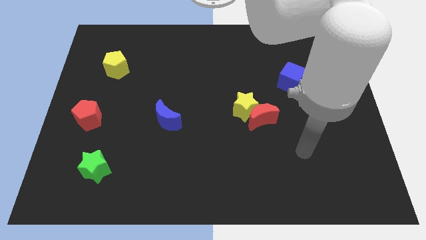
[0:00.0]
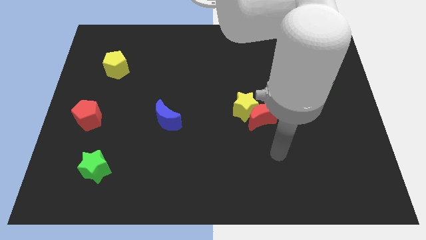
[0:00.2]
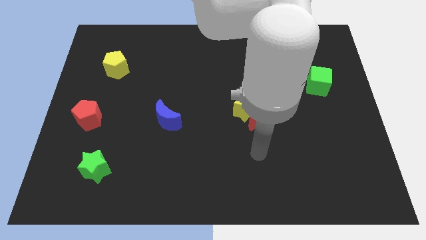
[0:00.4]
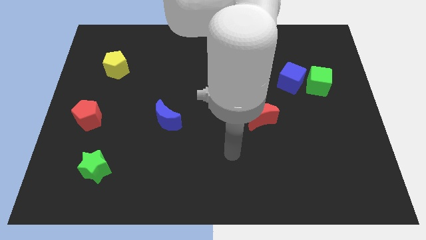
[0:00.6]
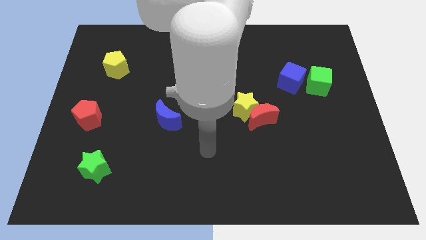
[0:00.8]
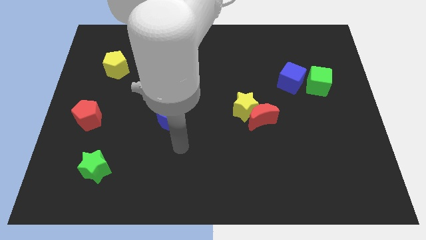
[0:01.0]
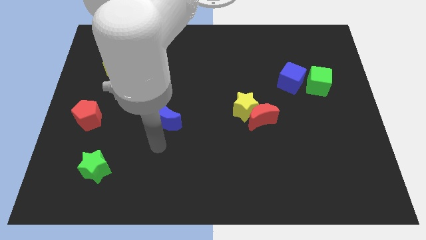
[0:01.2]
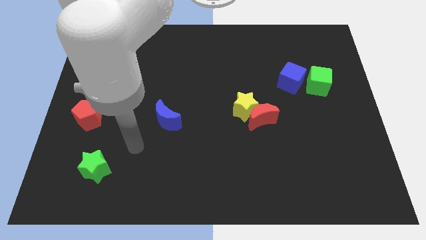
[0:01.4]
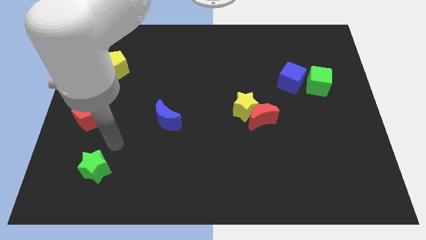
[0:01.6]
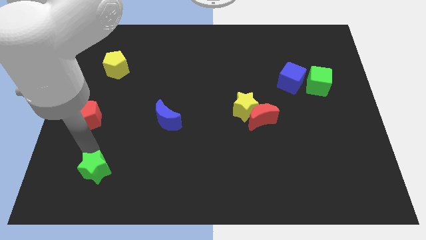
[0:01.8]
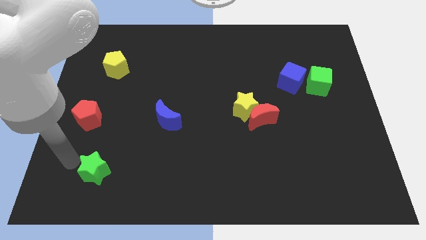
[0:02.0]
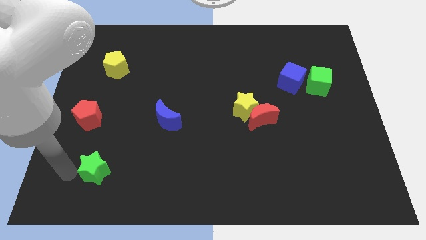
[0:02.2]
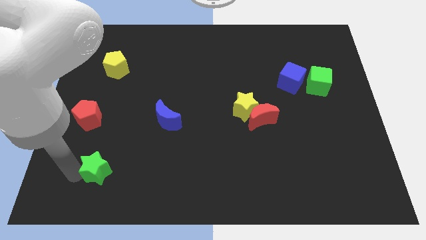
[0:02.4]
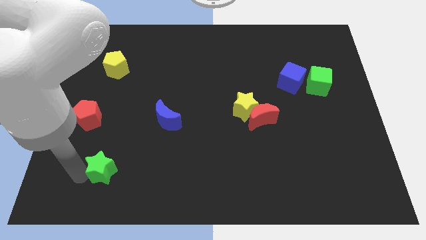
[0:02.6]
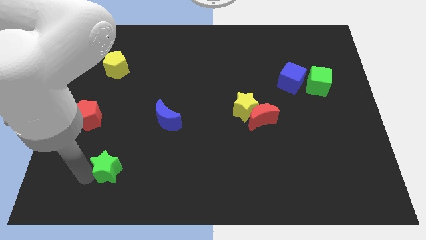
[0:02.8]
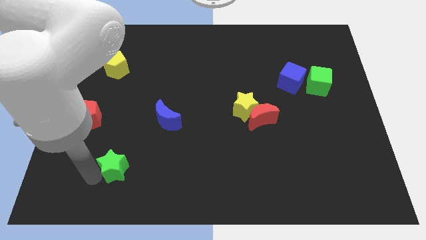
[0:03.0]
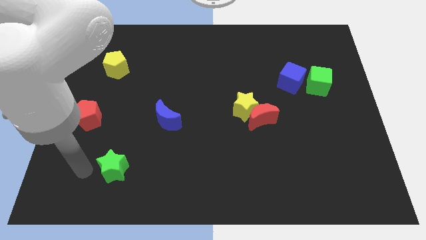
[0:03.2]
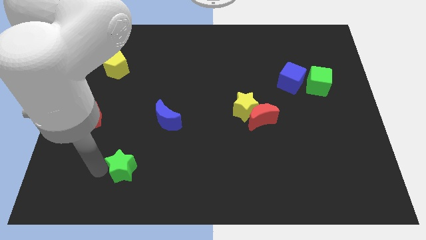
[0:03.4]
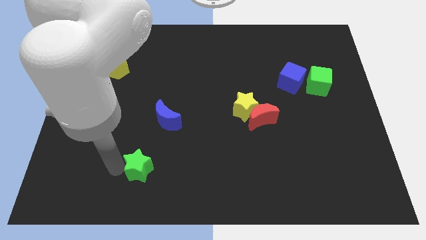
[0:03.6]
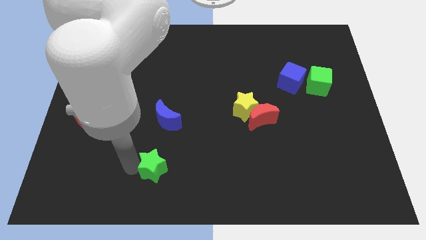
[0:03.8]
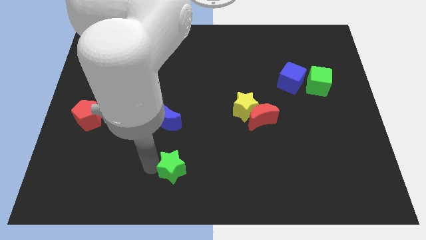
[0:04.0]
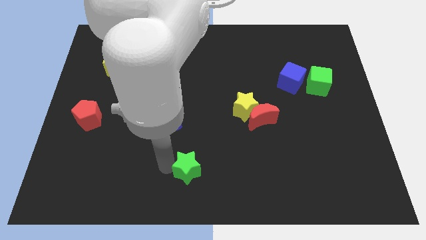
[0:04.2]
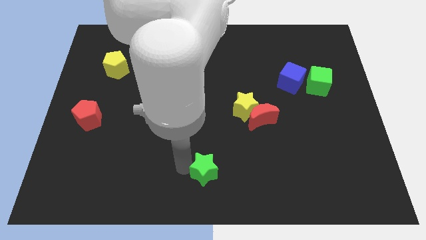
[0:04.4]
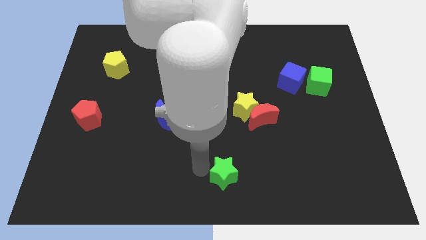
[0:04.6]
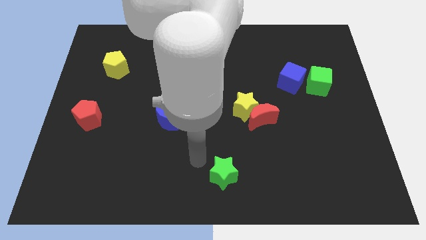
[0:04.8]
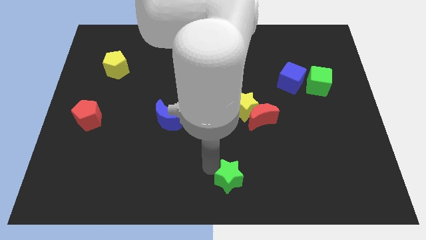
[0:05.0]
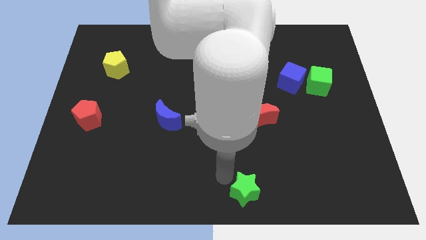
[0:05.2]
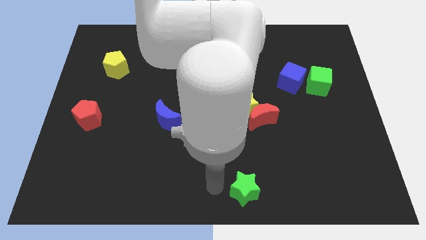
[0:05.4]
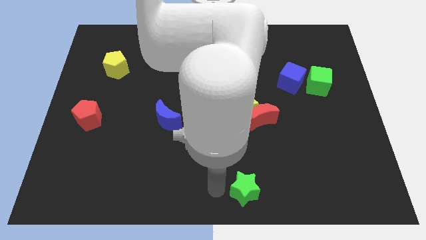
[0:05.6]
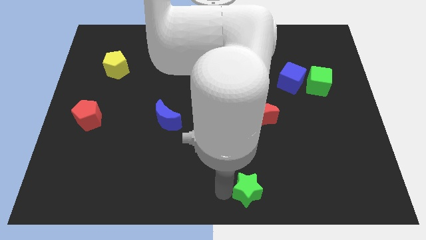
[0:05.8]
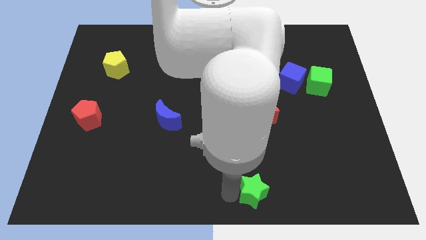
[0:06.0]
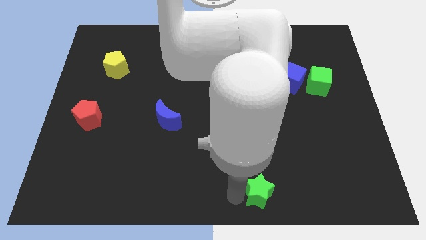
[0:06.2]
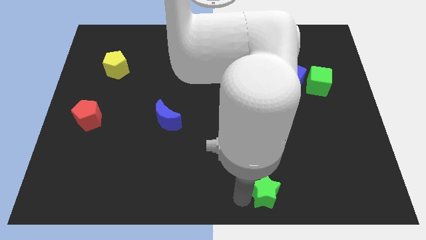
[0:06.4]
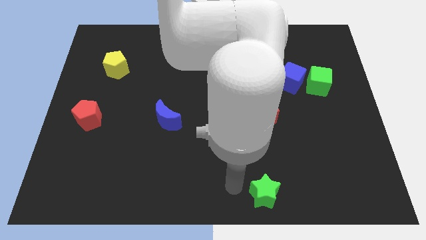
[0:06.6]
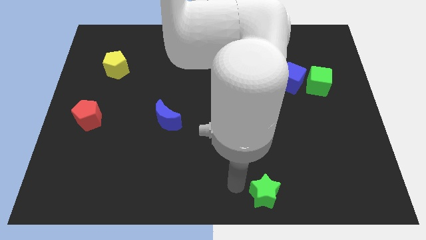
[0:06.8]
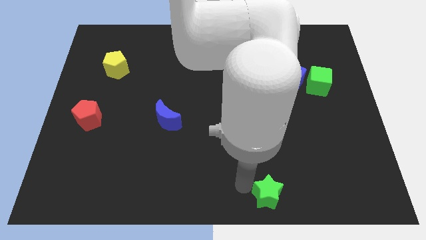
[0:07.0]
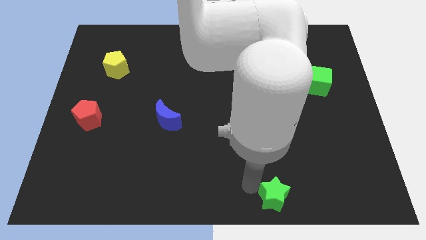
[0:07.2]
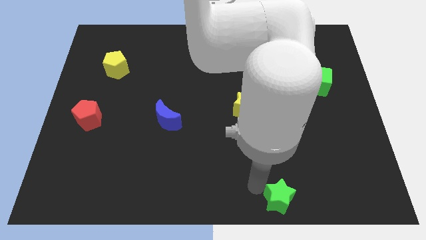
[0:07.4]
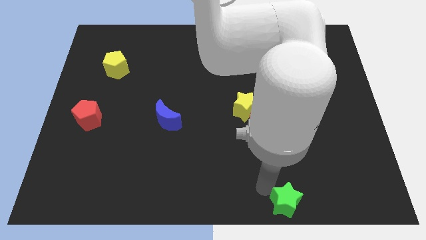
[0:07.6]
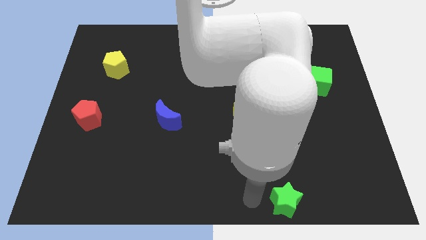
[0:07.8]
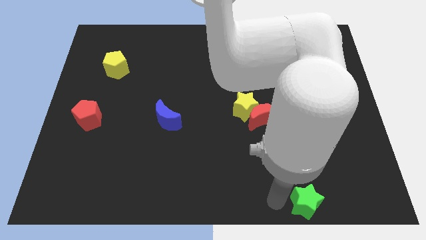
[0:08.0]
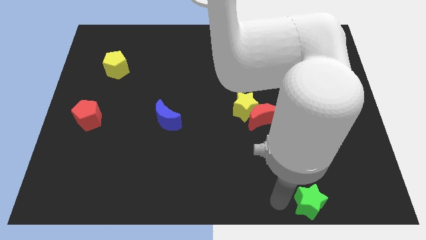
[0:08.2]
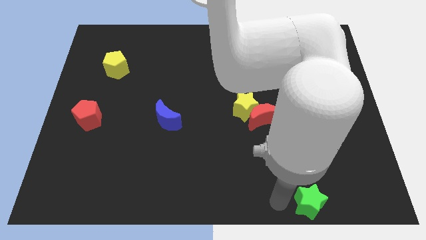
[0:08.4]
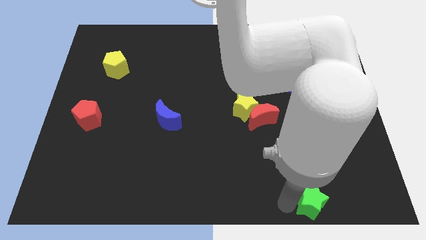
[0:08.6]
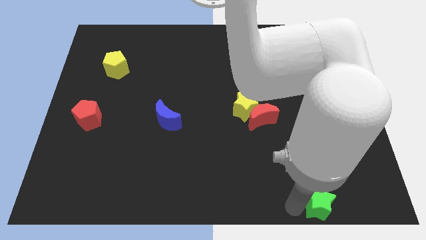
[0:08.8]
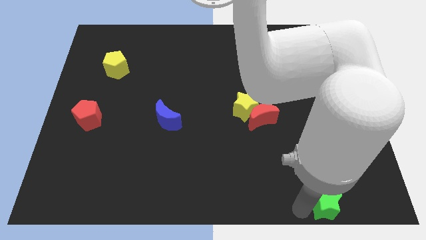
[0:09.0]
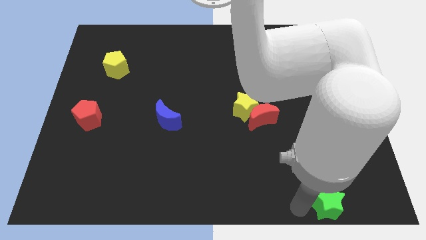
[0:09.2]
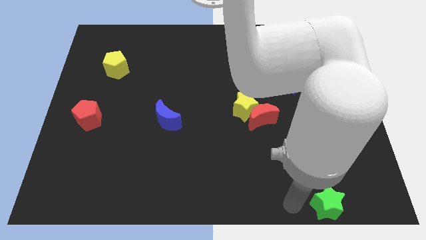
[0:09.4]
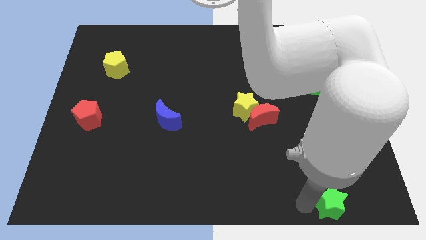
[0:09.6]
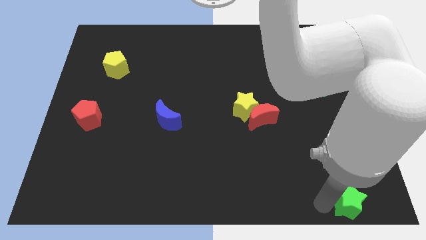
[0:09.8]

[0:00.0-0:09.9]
push the green star to the lower right corner

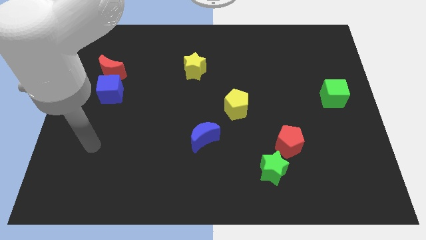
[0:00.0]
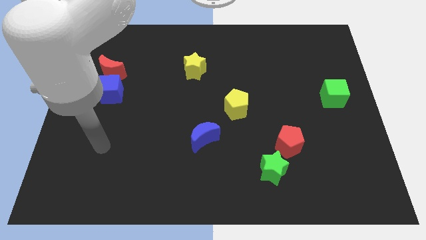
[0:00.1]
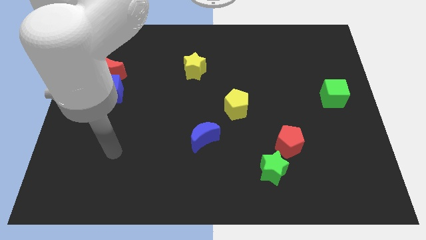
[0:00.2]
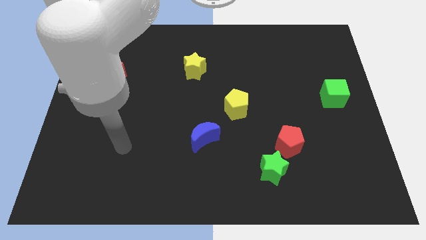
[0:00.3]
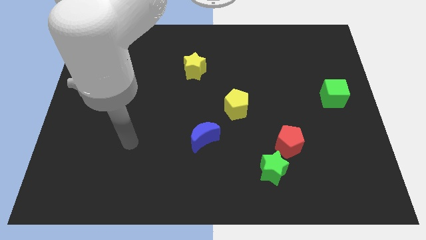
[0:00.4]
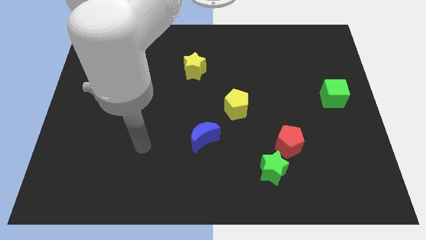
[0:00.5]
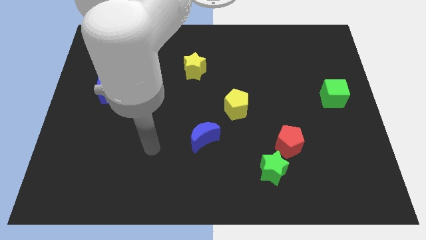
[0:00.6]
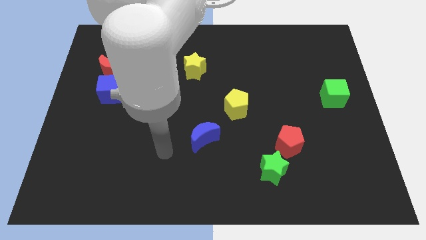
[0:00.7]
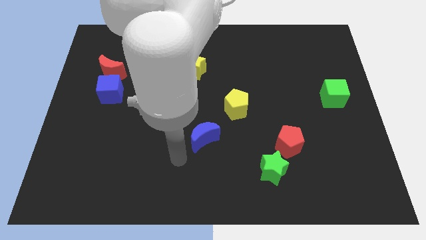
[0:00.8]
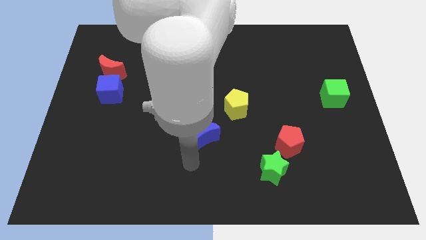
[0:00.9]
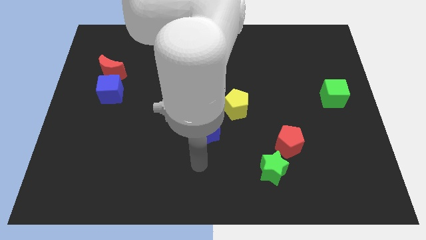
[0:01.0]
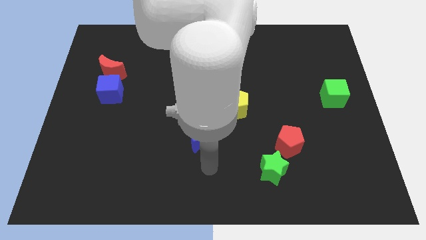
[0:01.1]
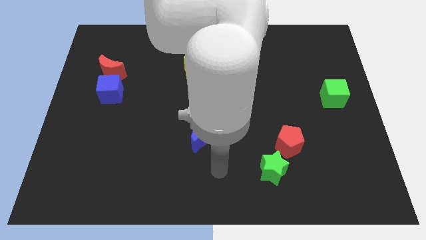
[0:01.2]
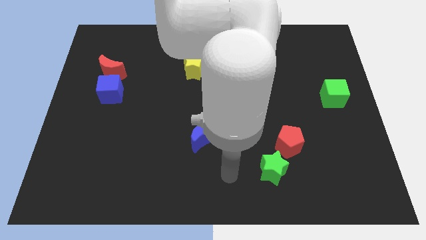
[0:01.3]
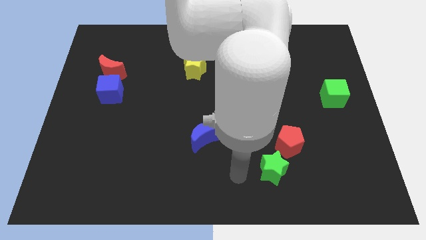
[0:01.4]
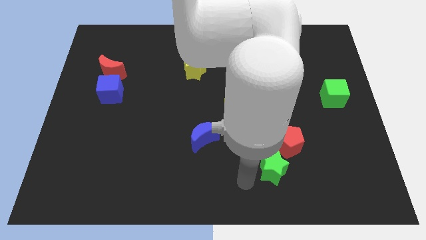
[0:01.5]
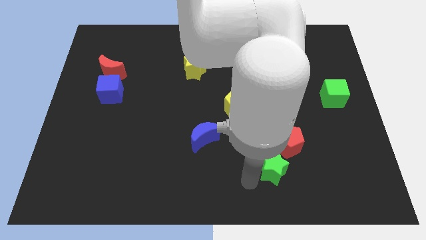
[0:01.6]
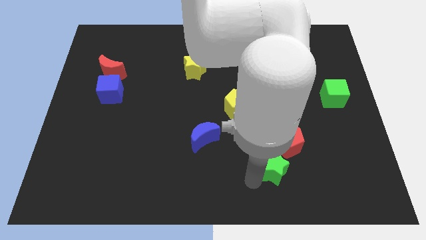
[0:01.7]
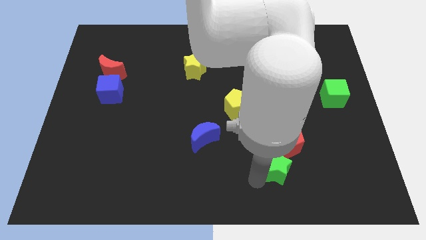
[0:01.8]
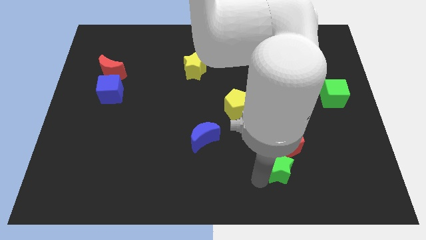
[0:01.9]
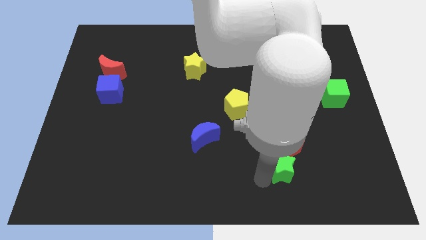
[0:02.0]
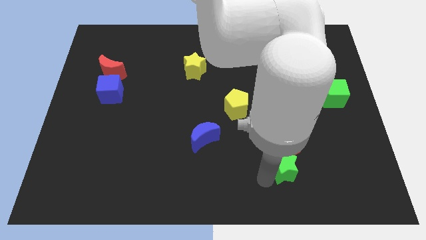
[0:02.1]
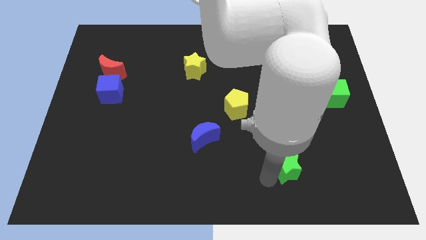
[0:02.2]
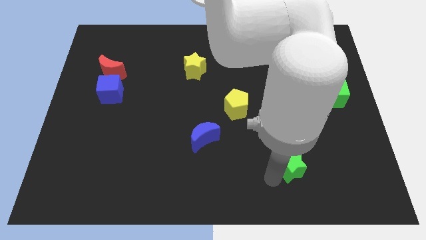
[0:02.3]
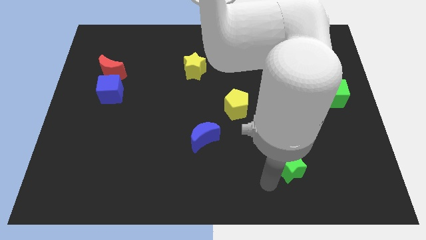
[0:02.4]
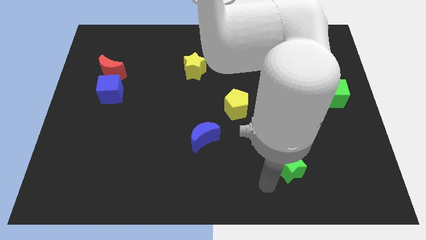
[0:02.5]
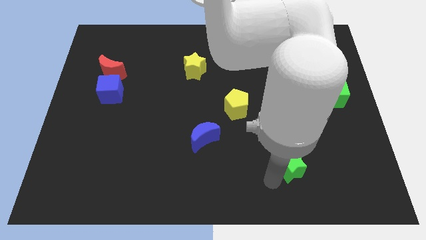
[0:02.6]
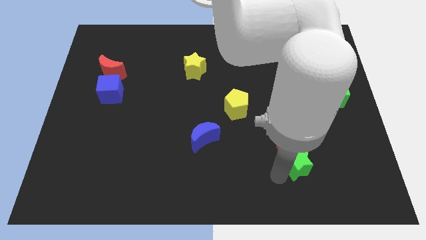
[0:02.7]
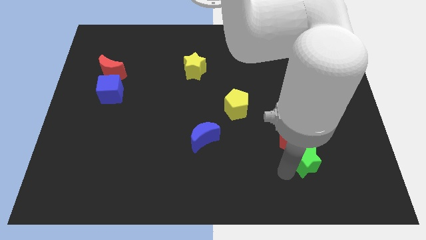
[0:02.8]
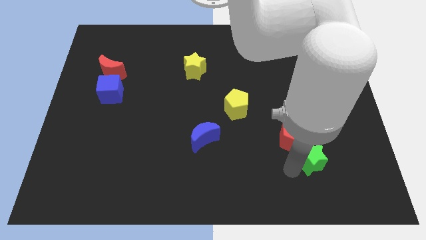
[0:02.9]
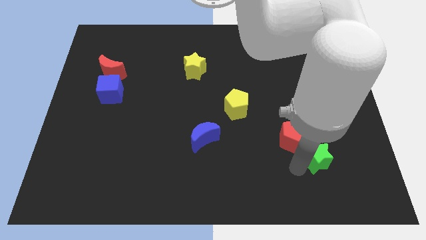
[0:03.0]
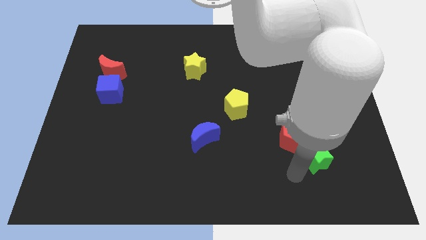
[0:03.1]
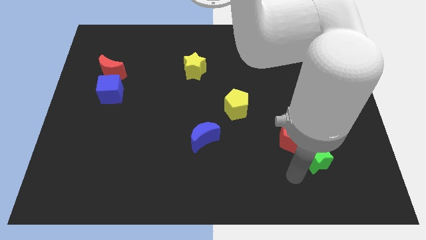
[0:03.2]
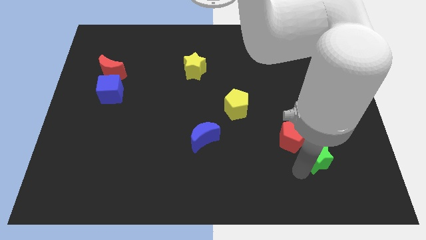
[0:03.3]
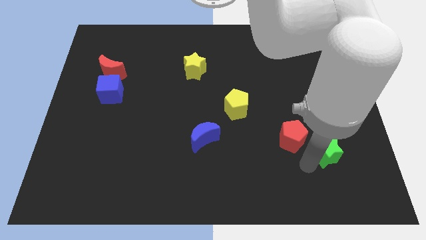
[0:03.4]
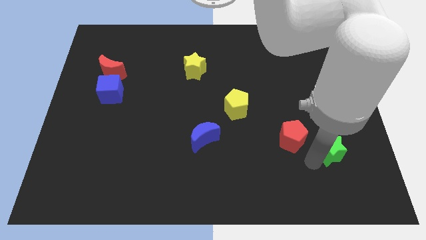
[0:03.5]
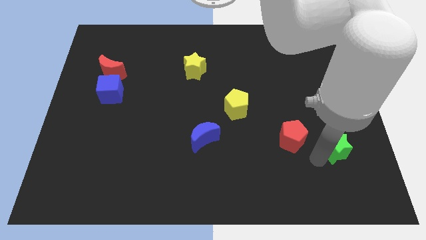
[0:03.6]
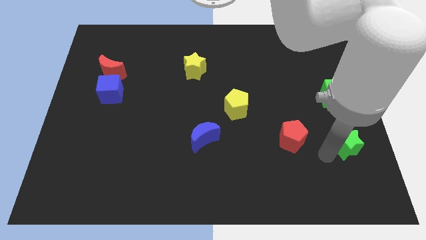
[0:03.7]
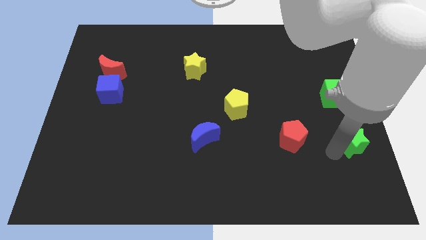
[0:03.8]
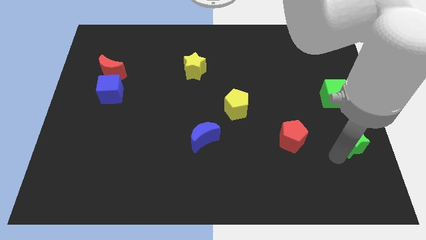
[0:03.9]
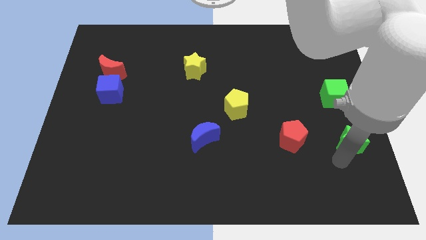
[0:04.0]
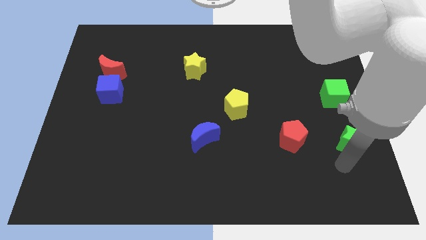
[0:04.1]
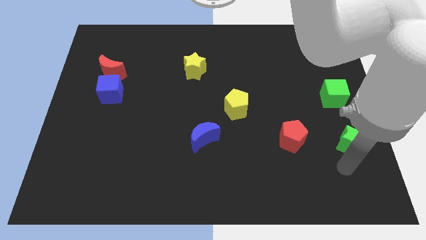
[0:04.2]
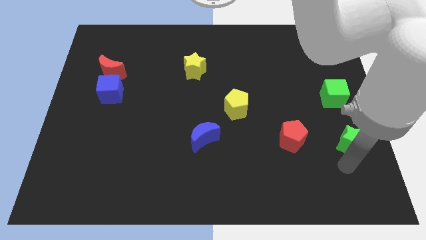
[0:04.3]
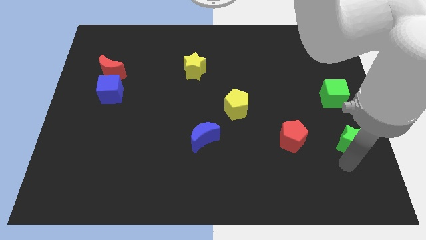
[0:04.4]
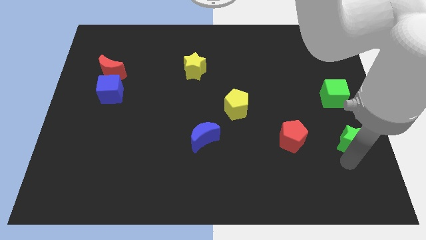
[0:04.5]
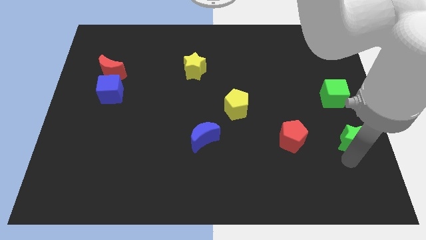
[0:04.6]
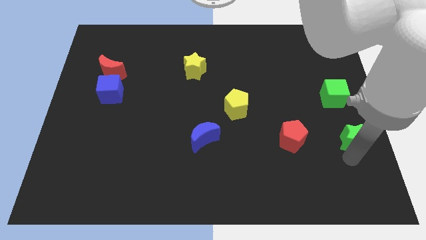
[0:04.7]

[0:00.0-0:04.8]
put the green star to the right side
